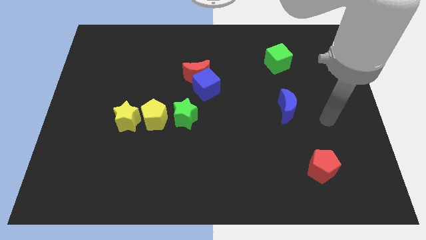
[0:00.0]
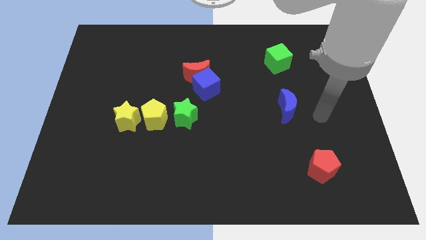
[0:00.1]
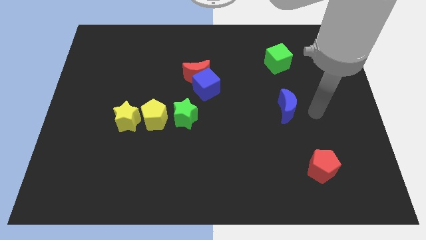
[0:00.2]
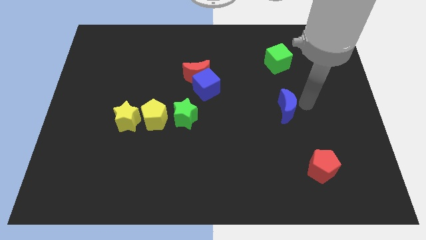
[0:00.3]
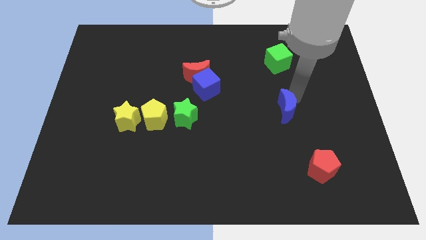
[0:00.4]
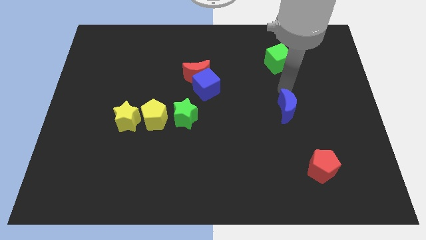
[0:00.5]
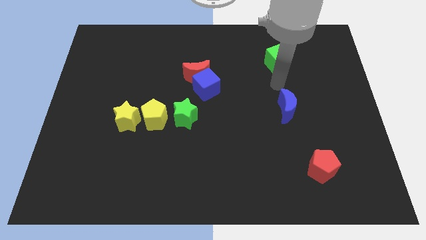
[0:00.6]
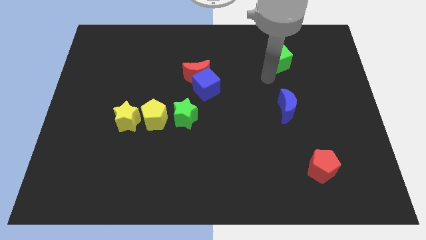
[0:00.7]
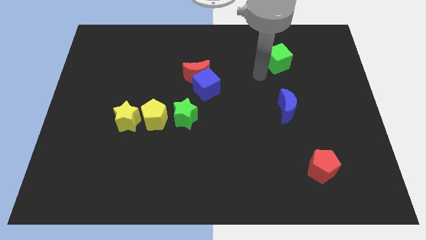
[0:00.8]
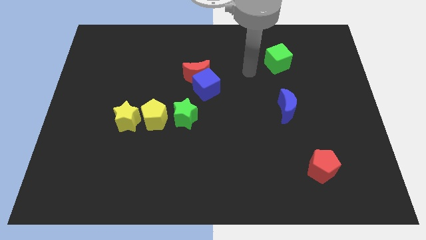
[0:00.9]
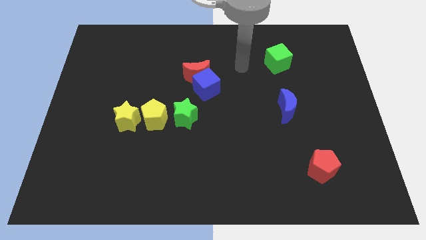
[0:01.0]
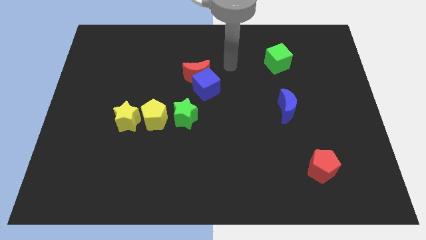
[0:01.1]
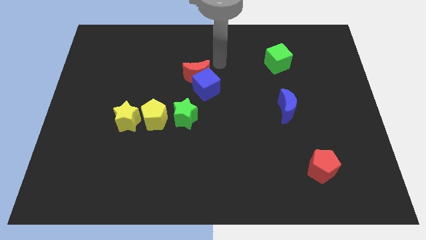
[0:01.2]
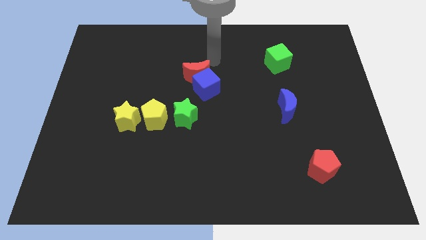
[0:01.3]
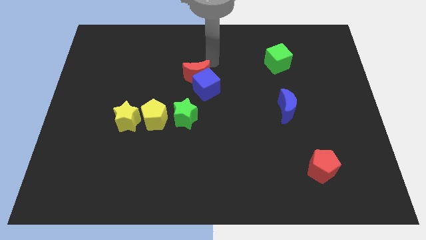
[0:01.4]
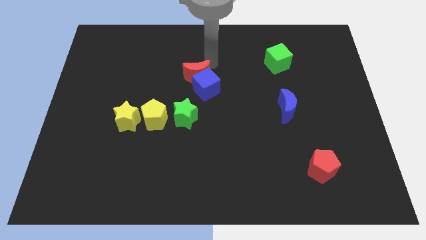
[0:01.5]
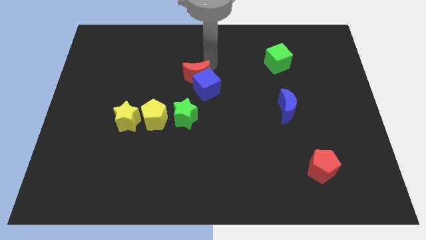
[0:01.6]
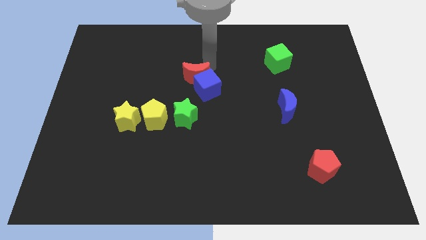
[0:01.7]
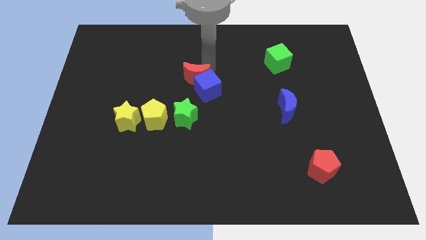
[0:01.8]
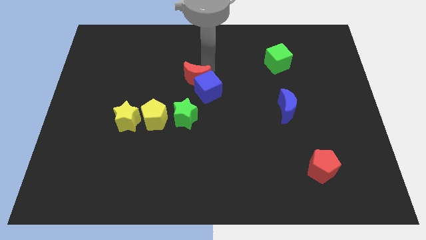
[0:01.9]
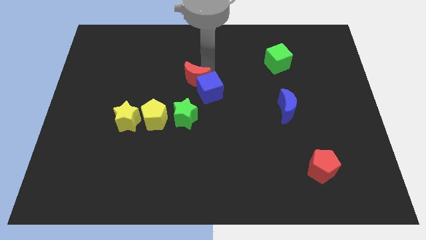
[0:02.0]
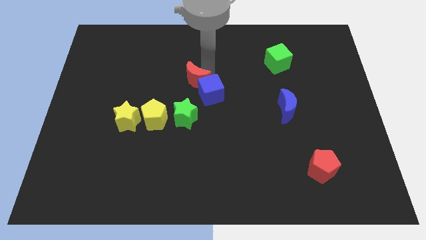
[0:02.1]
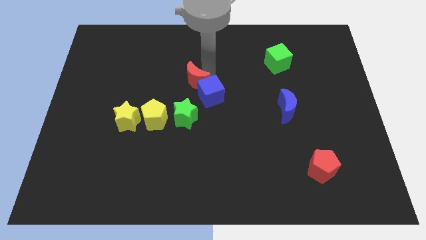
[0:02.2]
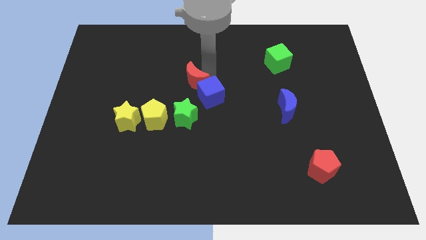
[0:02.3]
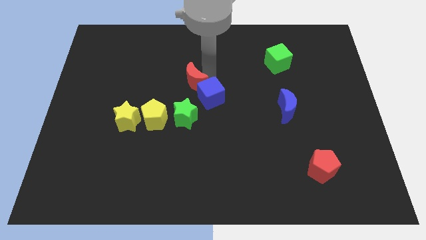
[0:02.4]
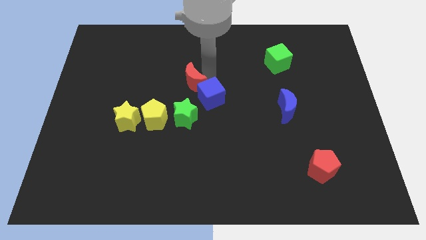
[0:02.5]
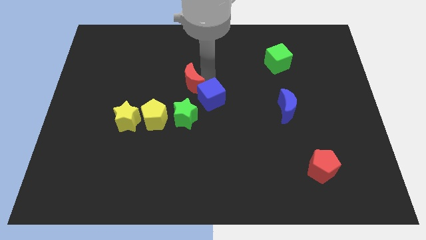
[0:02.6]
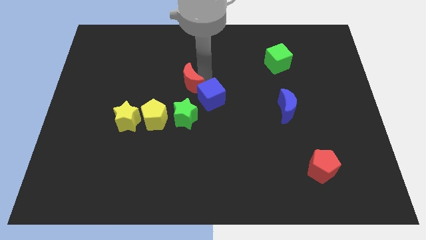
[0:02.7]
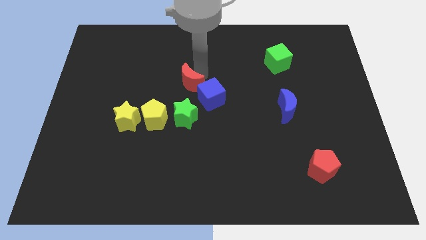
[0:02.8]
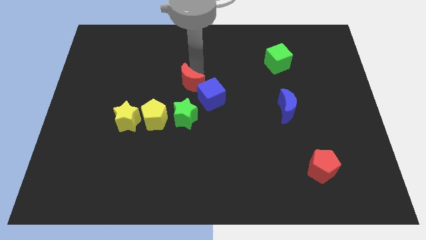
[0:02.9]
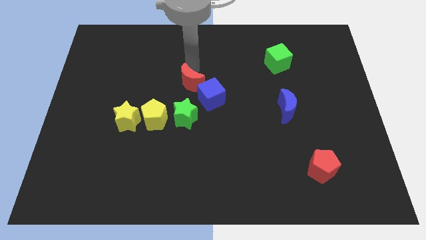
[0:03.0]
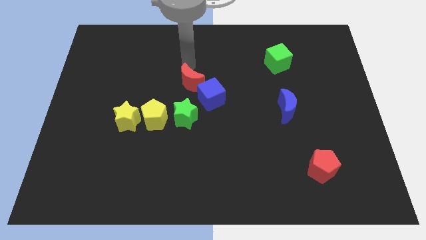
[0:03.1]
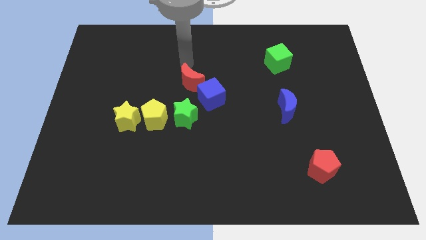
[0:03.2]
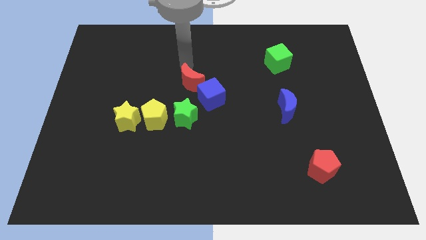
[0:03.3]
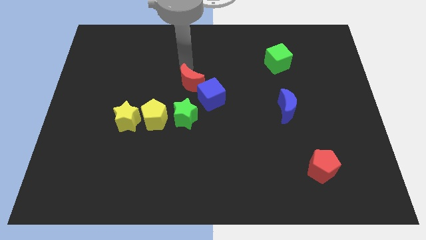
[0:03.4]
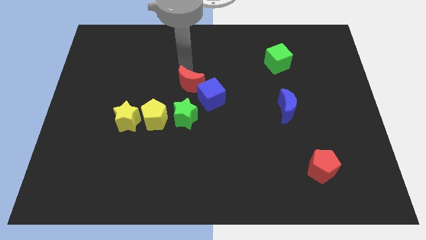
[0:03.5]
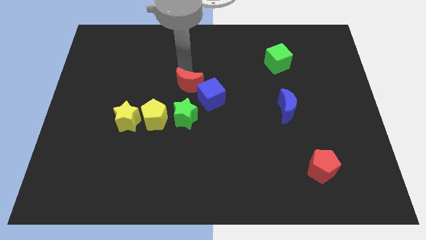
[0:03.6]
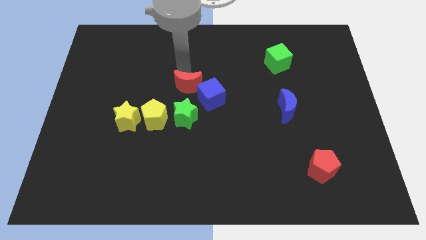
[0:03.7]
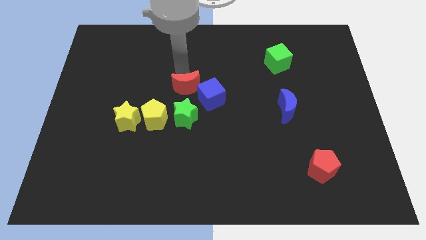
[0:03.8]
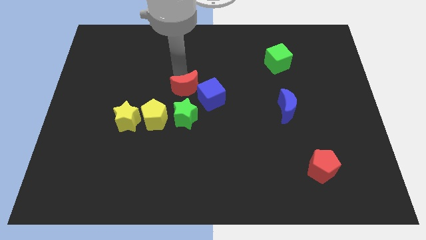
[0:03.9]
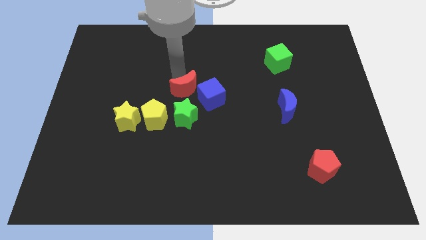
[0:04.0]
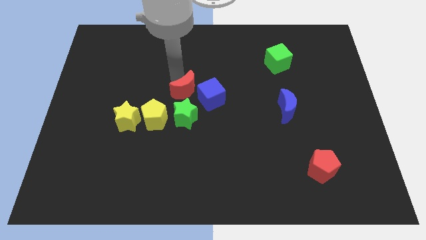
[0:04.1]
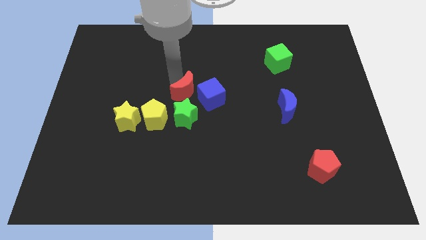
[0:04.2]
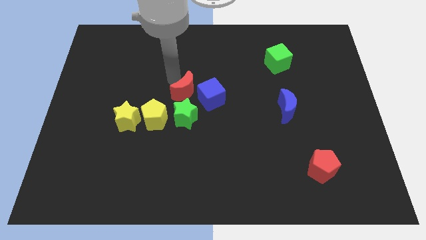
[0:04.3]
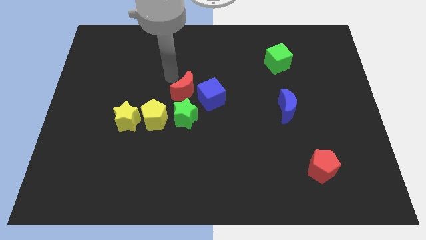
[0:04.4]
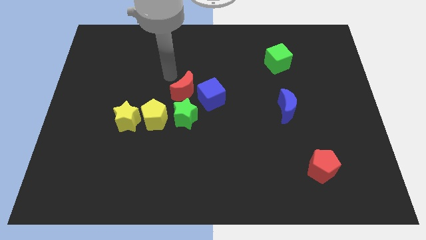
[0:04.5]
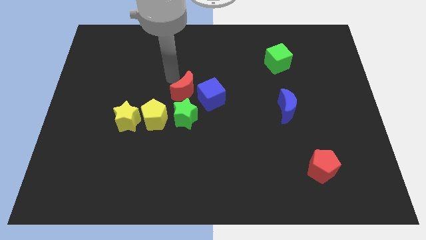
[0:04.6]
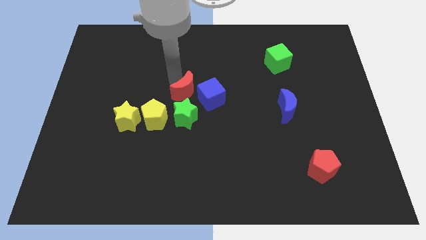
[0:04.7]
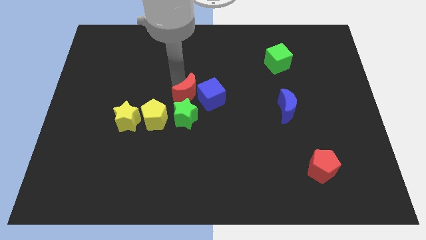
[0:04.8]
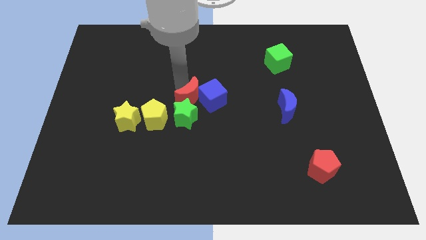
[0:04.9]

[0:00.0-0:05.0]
push the red moon a bit downwards

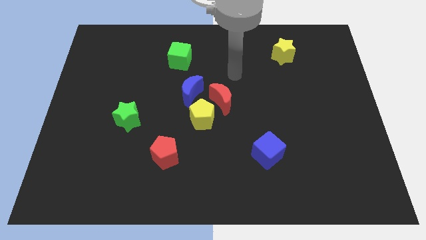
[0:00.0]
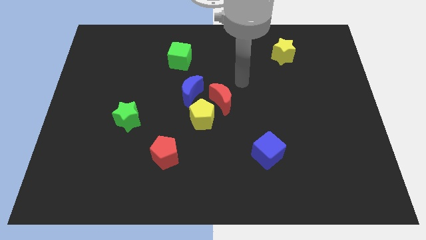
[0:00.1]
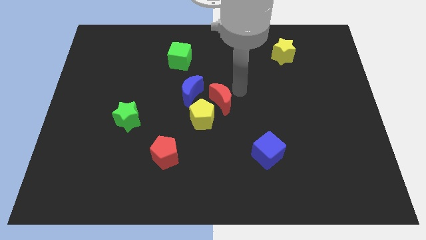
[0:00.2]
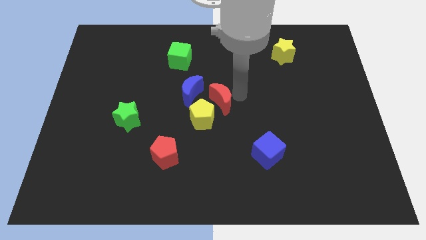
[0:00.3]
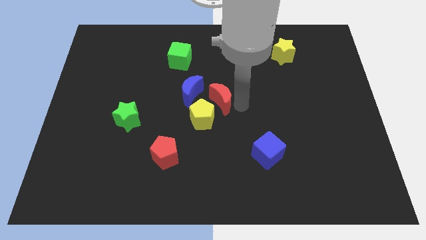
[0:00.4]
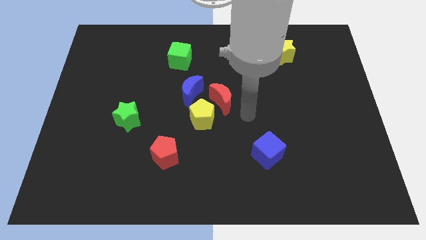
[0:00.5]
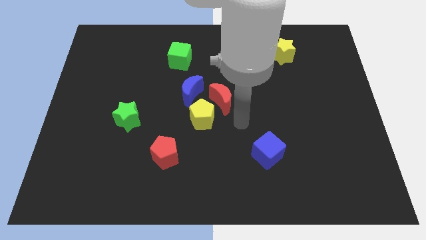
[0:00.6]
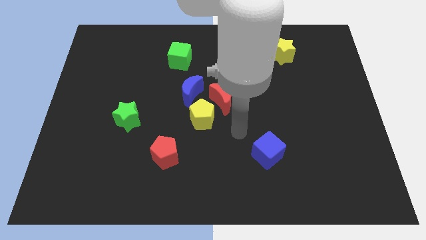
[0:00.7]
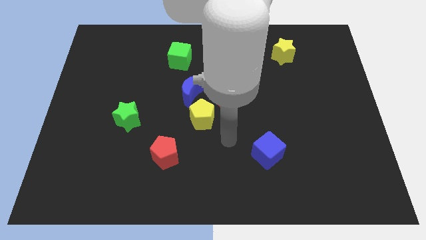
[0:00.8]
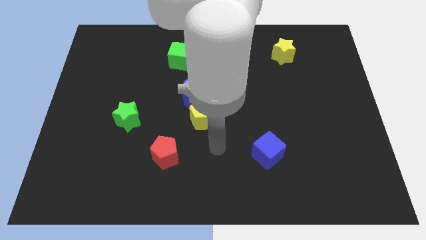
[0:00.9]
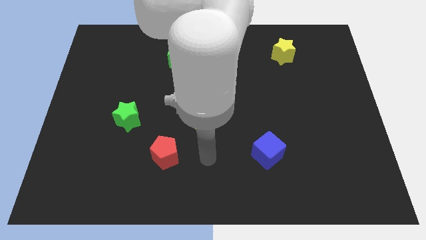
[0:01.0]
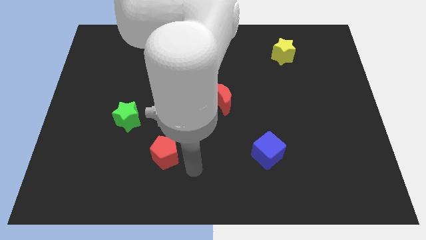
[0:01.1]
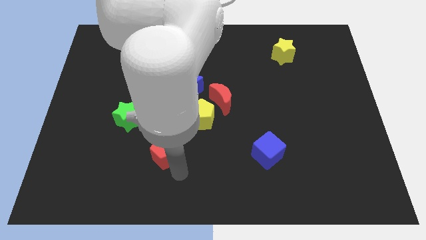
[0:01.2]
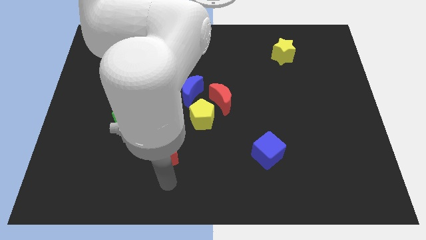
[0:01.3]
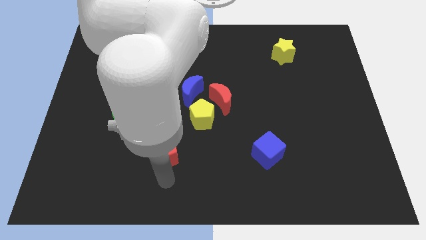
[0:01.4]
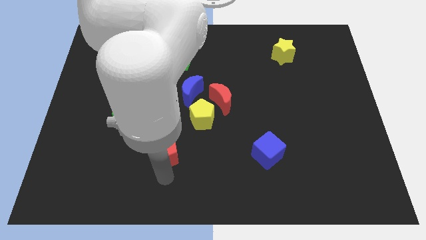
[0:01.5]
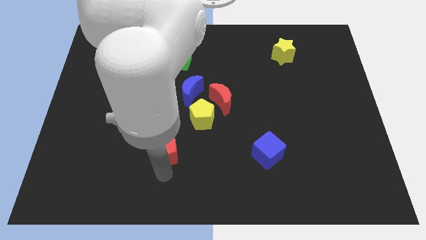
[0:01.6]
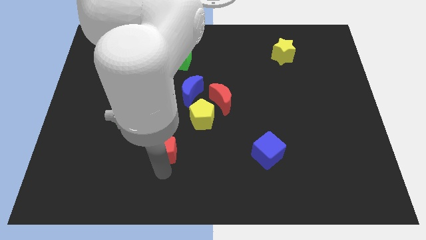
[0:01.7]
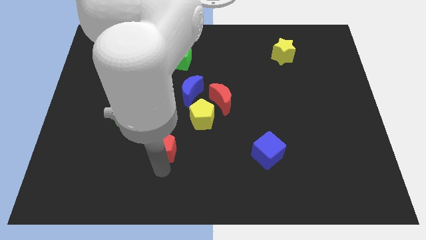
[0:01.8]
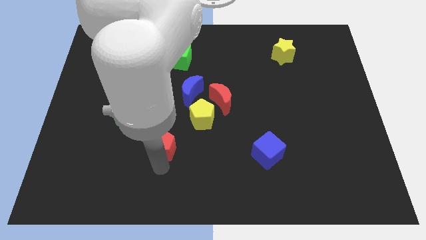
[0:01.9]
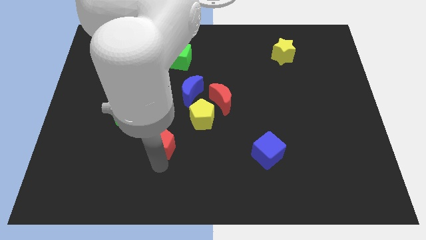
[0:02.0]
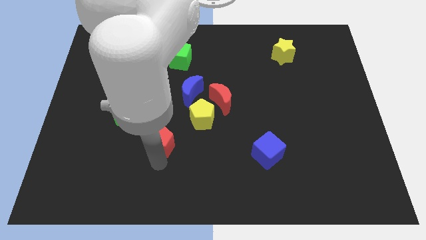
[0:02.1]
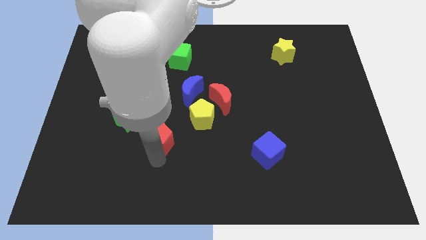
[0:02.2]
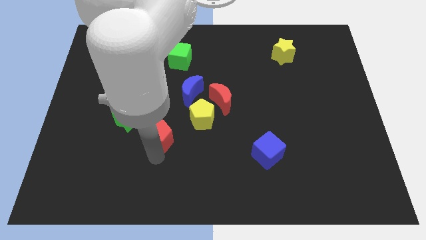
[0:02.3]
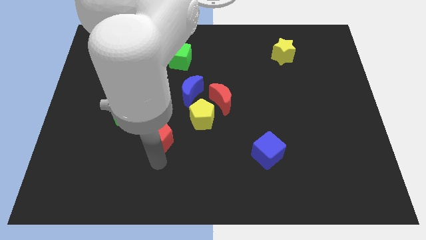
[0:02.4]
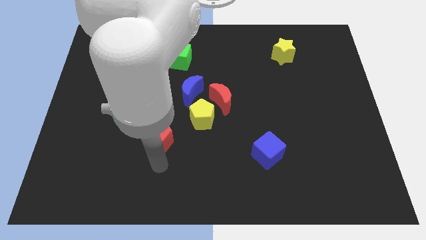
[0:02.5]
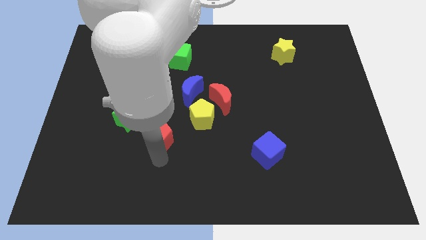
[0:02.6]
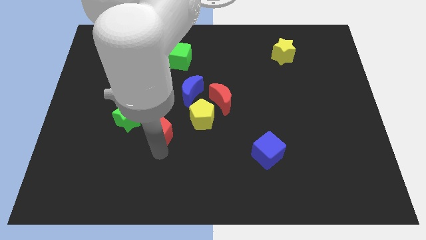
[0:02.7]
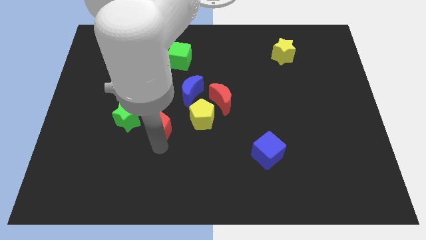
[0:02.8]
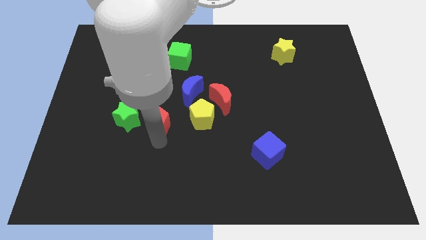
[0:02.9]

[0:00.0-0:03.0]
slightly move the red pentagon up

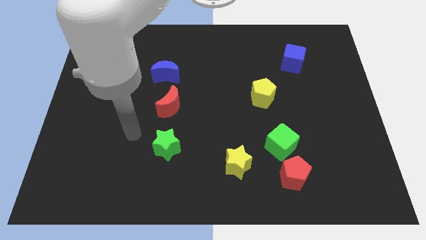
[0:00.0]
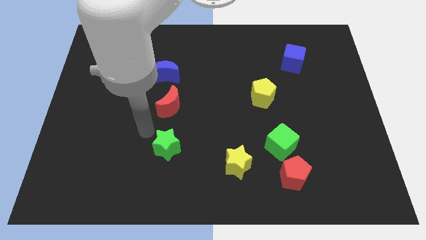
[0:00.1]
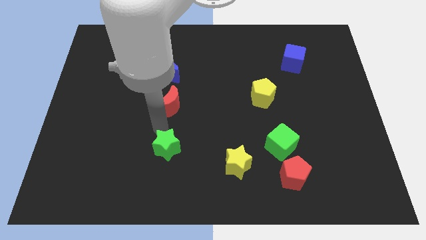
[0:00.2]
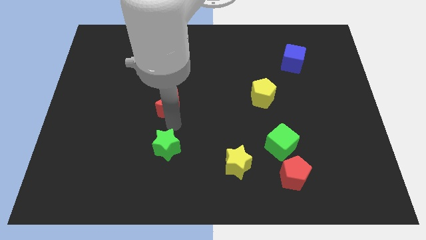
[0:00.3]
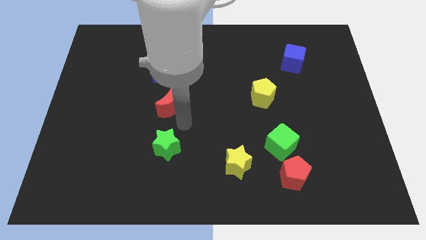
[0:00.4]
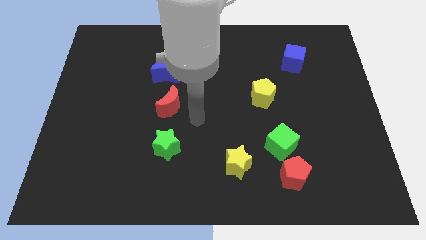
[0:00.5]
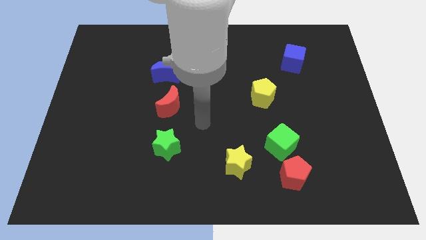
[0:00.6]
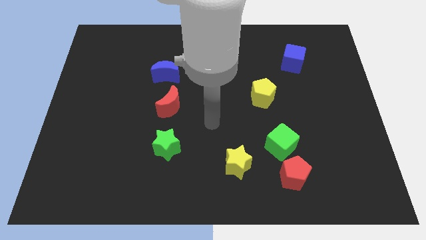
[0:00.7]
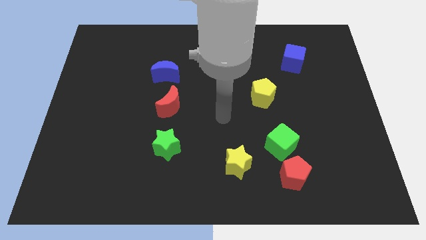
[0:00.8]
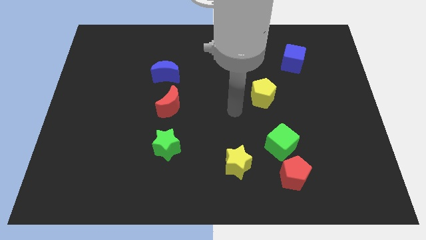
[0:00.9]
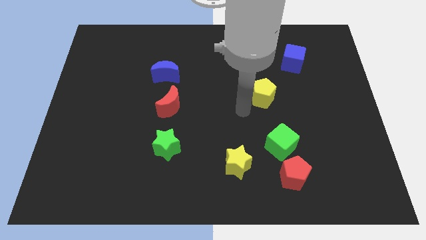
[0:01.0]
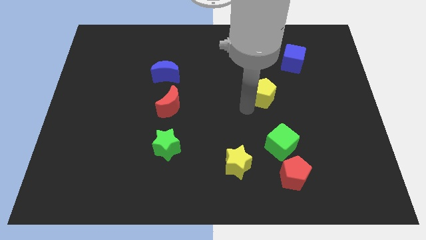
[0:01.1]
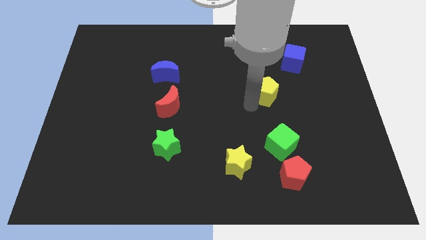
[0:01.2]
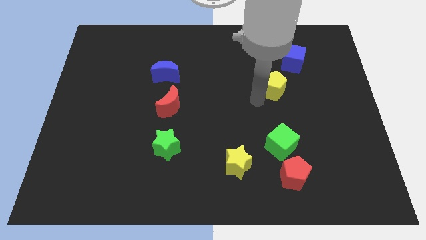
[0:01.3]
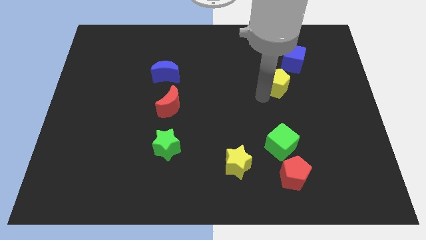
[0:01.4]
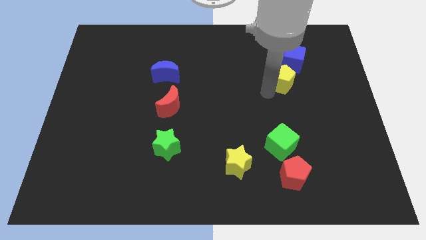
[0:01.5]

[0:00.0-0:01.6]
move the yellow pentagon somewhat up and to the right diagonally
